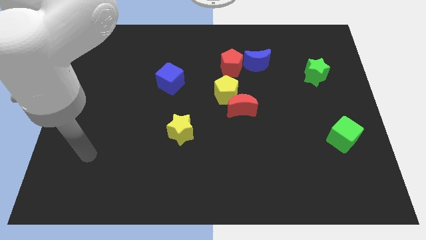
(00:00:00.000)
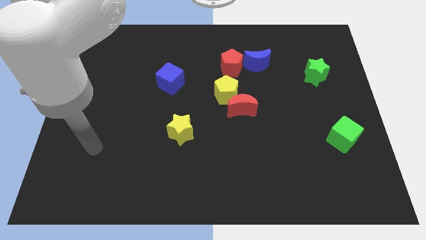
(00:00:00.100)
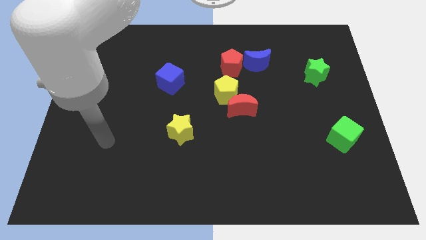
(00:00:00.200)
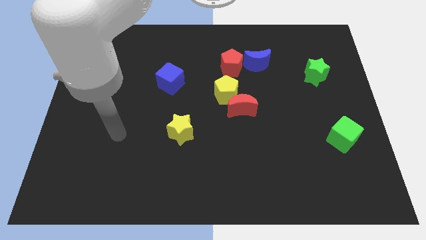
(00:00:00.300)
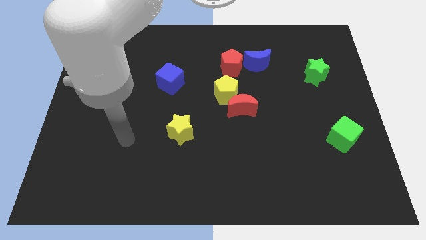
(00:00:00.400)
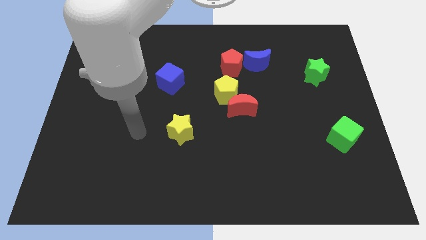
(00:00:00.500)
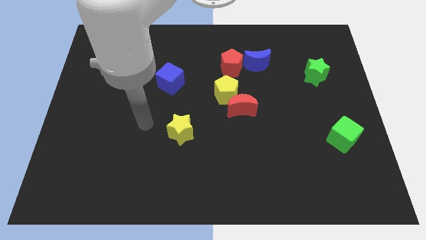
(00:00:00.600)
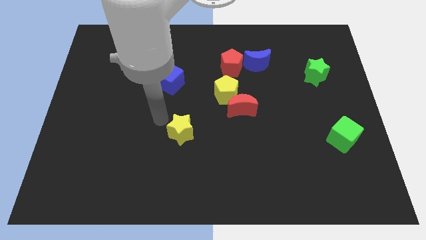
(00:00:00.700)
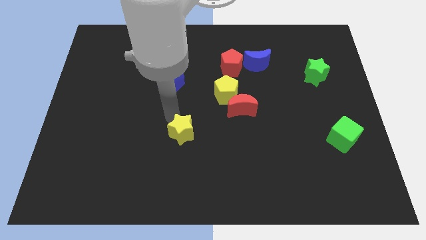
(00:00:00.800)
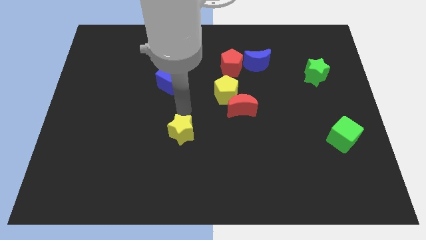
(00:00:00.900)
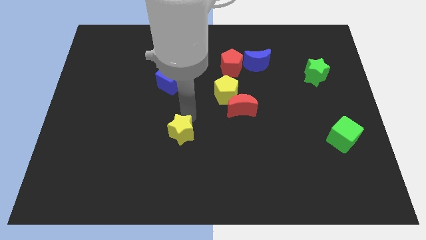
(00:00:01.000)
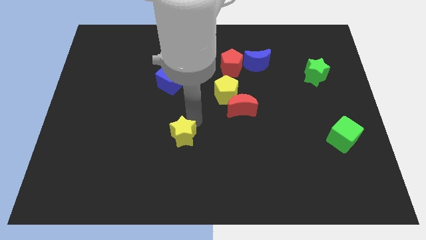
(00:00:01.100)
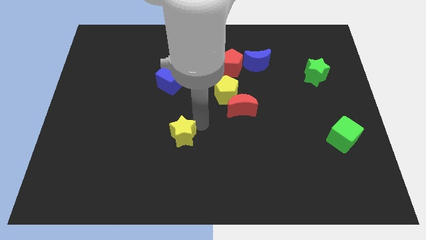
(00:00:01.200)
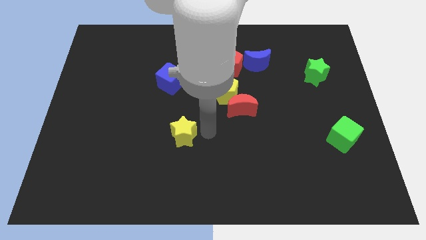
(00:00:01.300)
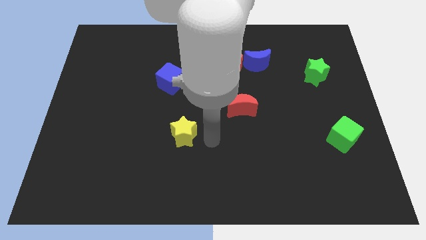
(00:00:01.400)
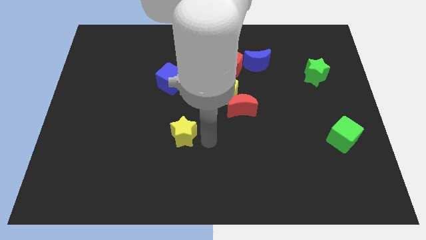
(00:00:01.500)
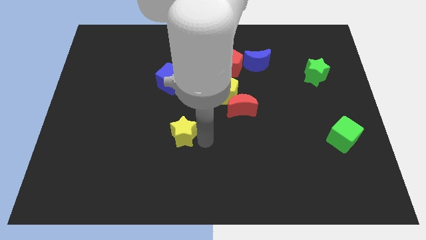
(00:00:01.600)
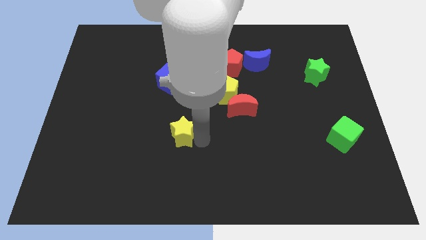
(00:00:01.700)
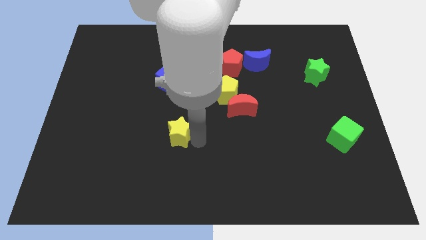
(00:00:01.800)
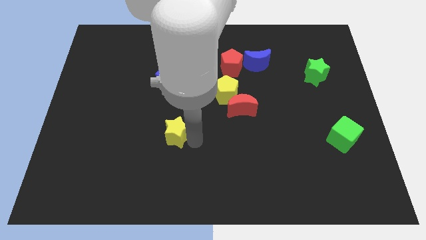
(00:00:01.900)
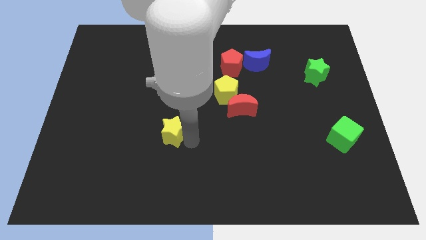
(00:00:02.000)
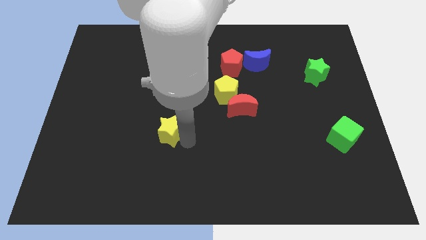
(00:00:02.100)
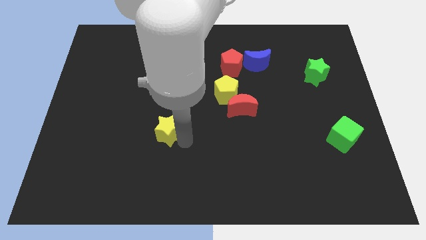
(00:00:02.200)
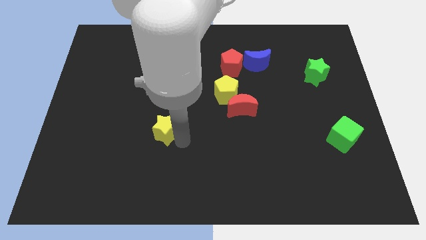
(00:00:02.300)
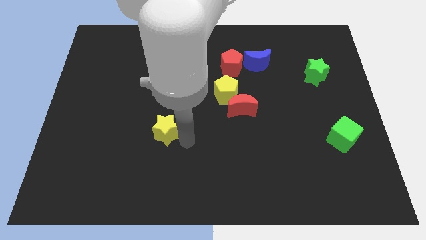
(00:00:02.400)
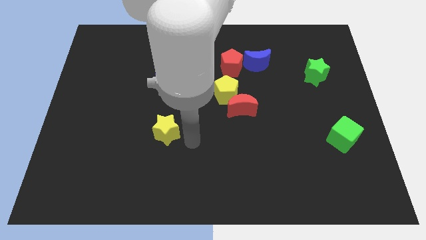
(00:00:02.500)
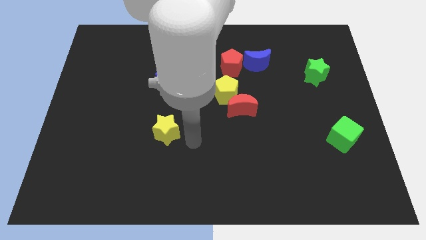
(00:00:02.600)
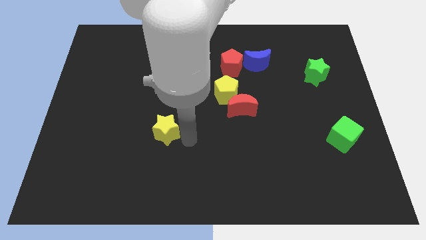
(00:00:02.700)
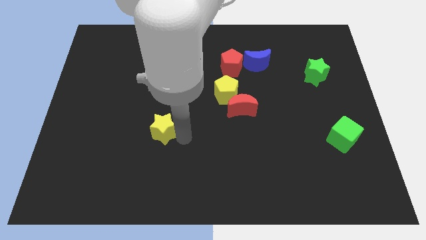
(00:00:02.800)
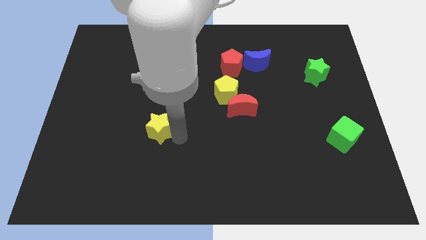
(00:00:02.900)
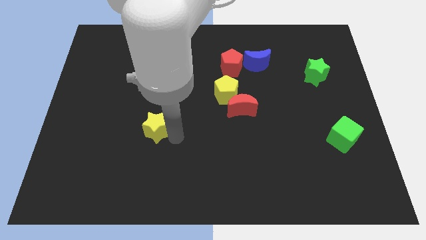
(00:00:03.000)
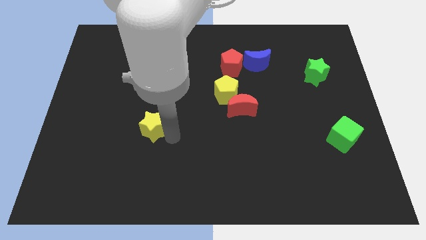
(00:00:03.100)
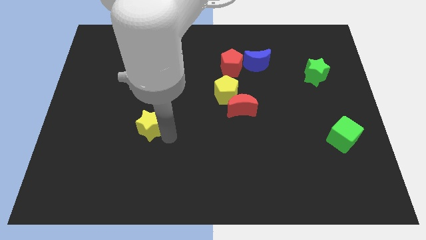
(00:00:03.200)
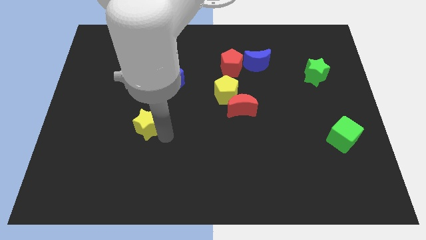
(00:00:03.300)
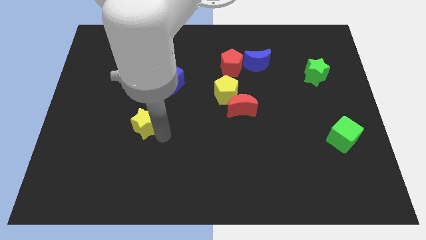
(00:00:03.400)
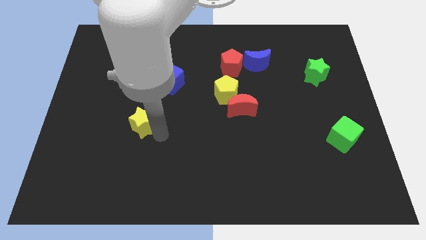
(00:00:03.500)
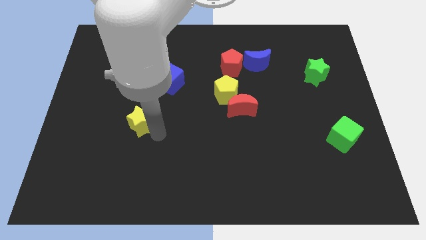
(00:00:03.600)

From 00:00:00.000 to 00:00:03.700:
slightly slide the yellow star upwards and then left

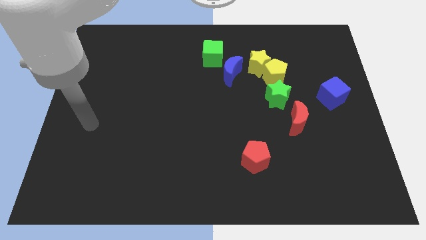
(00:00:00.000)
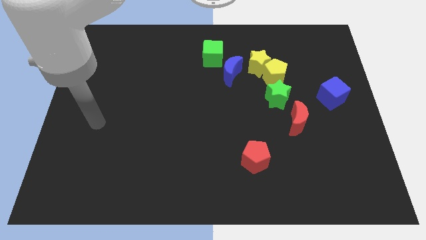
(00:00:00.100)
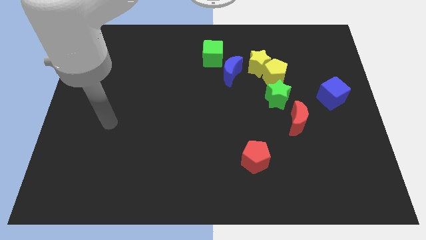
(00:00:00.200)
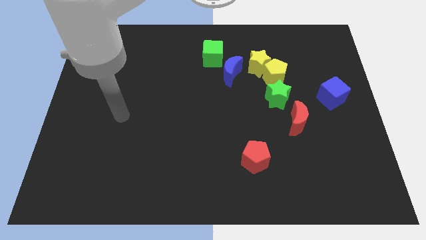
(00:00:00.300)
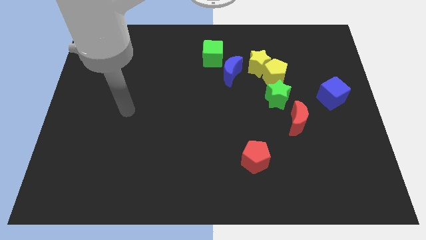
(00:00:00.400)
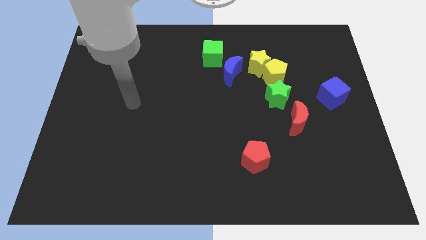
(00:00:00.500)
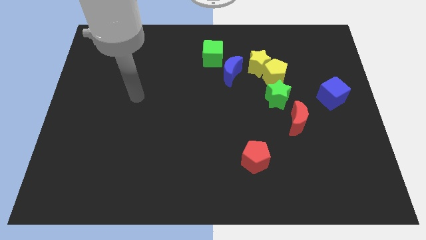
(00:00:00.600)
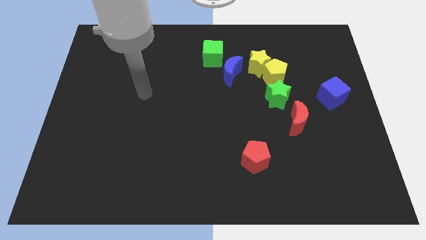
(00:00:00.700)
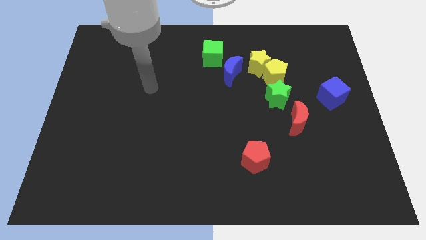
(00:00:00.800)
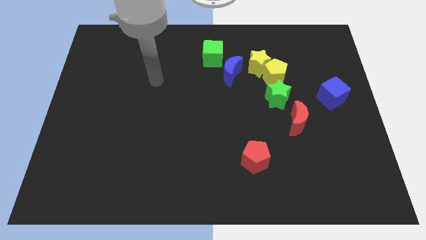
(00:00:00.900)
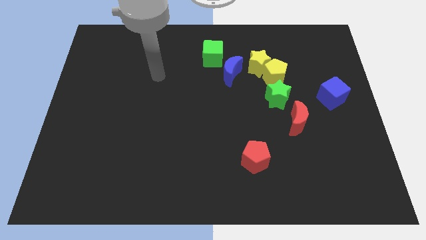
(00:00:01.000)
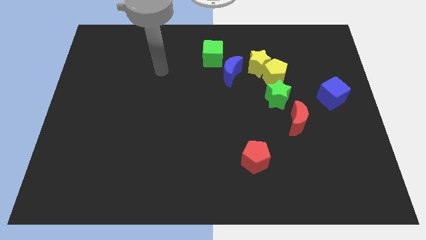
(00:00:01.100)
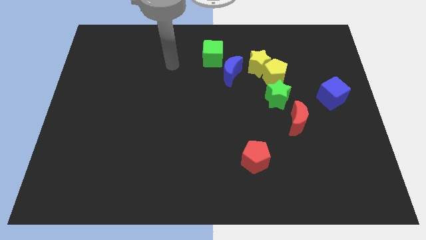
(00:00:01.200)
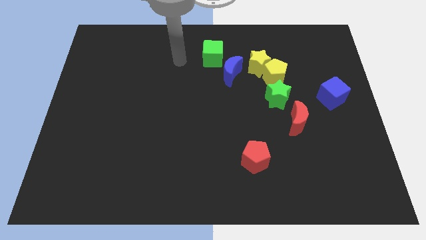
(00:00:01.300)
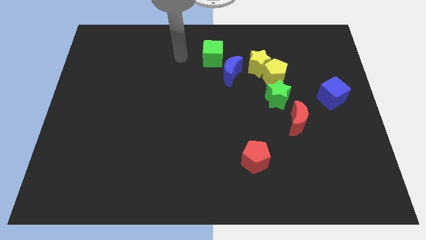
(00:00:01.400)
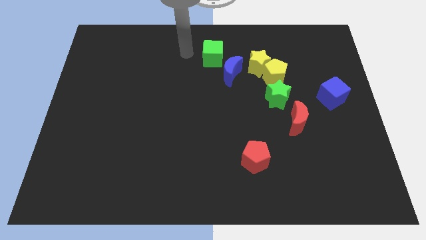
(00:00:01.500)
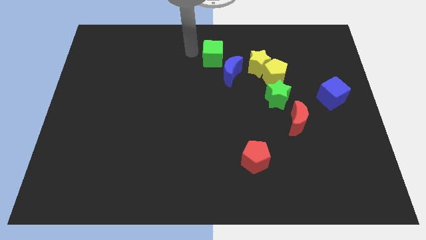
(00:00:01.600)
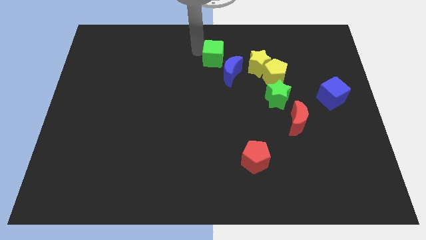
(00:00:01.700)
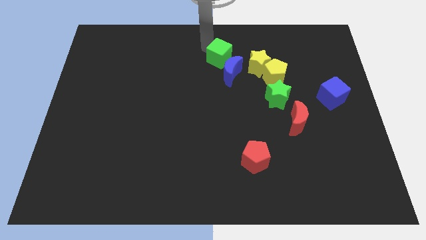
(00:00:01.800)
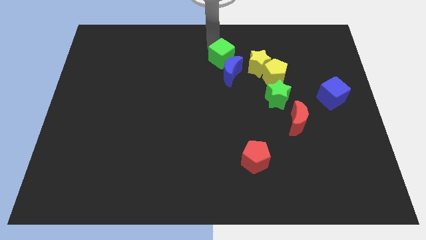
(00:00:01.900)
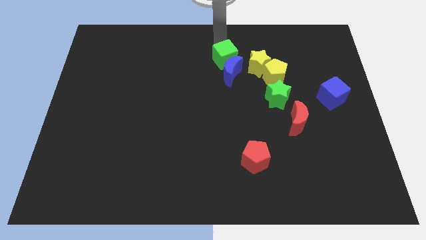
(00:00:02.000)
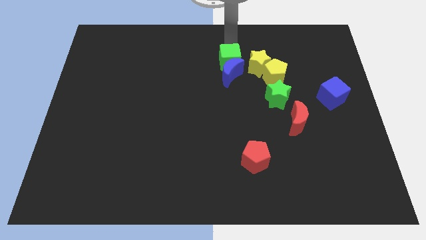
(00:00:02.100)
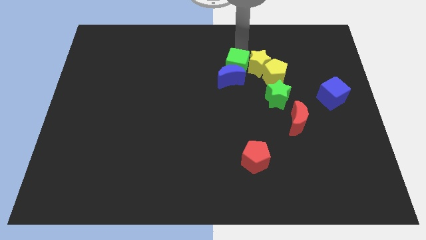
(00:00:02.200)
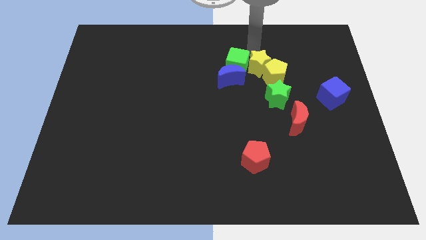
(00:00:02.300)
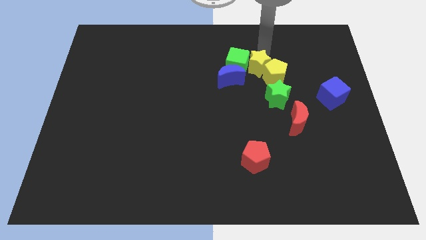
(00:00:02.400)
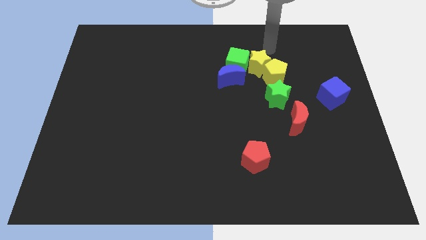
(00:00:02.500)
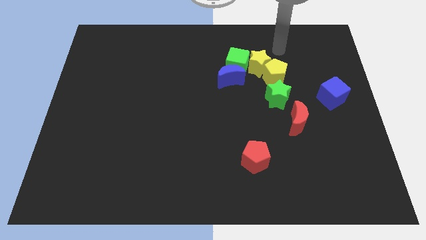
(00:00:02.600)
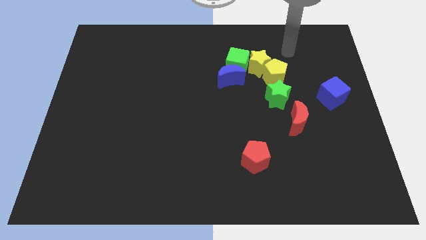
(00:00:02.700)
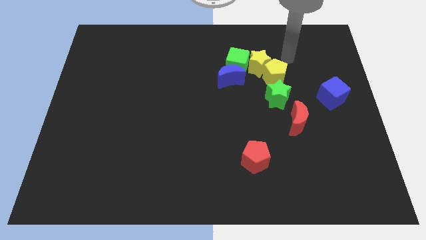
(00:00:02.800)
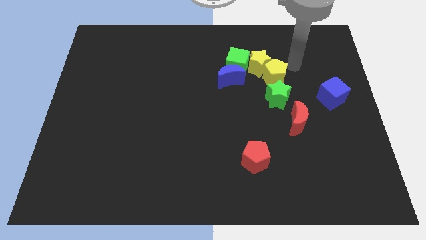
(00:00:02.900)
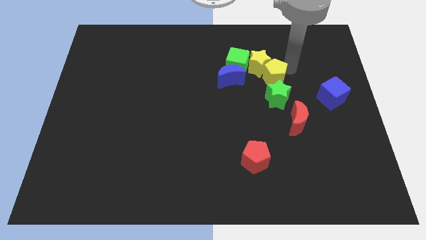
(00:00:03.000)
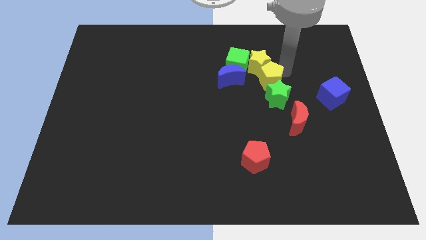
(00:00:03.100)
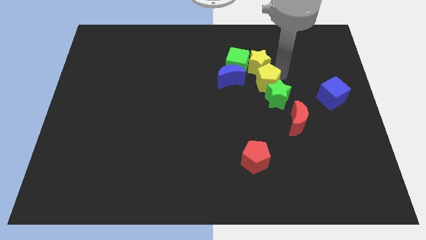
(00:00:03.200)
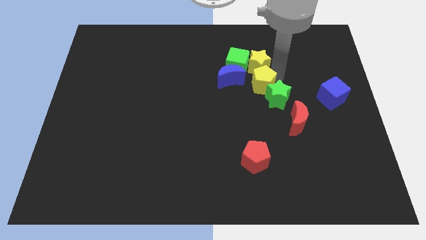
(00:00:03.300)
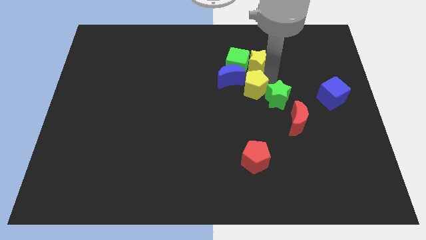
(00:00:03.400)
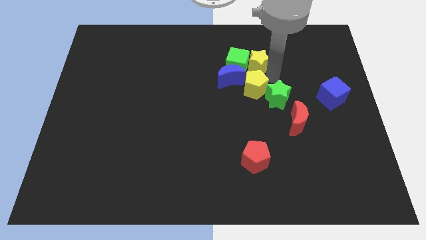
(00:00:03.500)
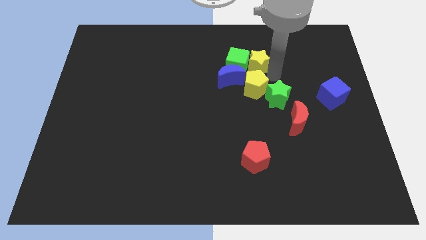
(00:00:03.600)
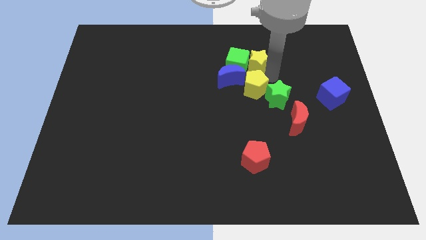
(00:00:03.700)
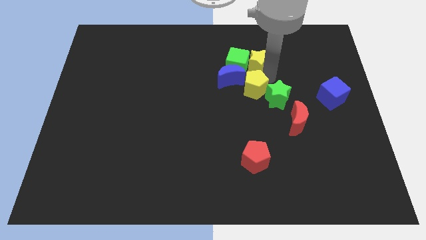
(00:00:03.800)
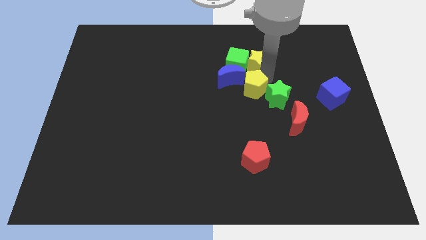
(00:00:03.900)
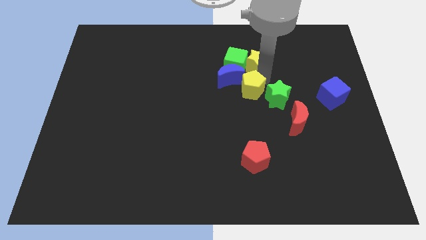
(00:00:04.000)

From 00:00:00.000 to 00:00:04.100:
slightly slide the yellow pentagon downwards and to the left diagonally
